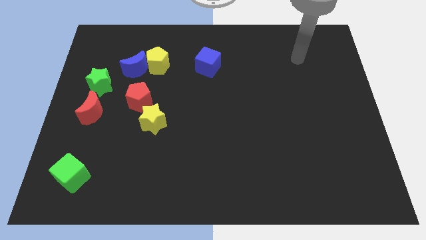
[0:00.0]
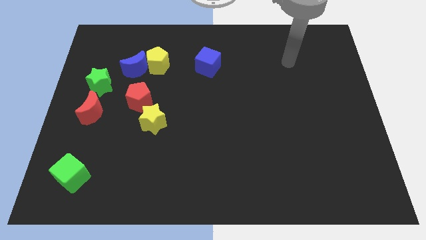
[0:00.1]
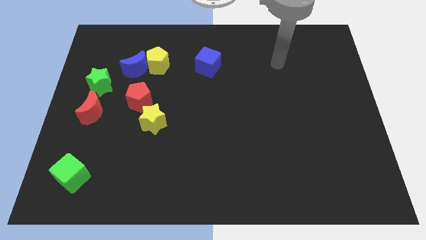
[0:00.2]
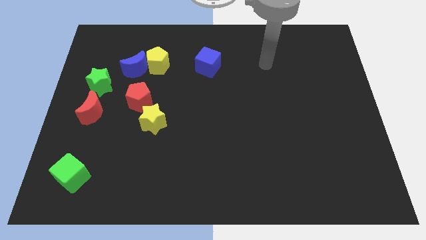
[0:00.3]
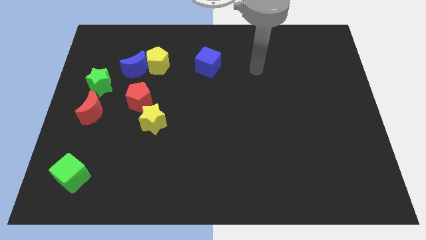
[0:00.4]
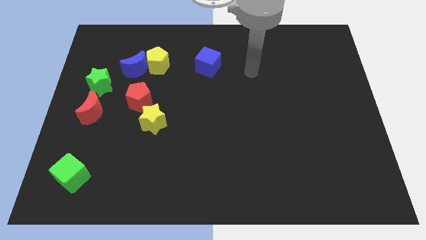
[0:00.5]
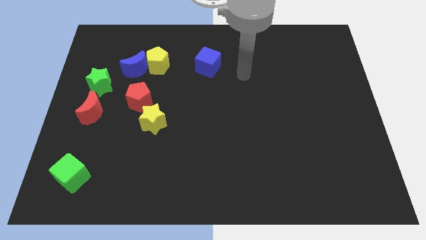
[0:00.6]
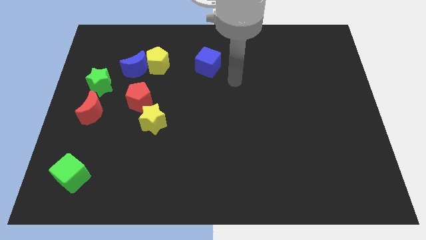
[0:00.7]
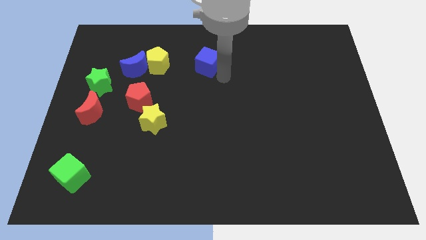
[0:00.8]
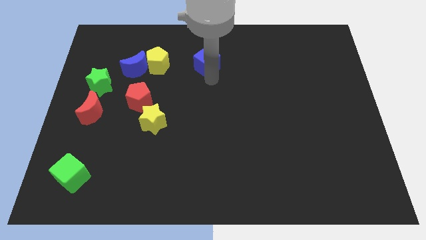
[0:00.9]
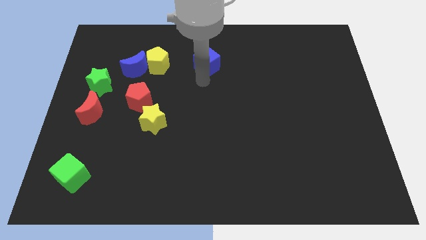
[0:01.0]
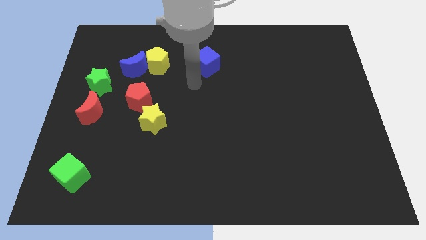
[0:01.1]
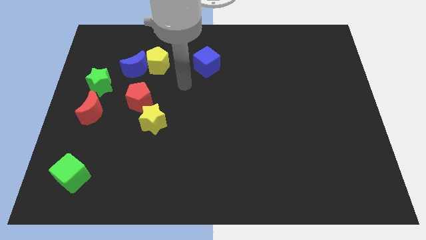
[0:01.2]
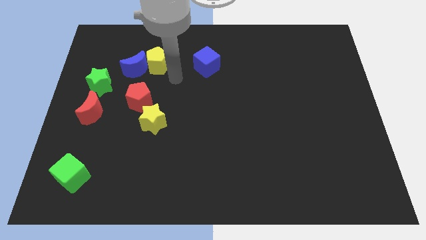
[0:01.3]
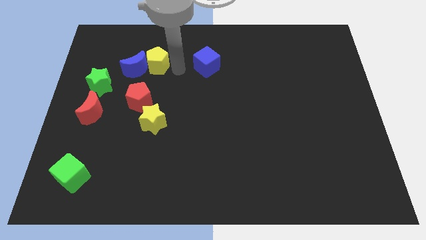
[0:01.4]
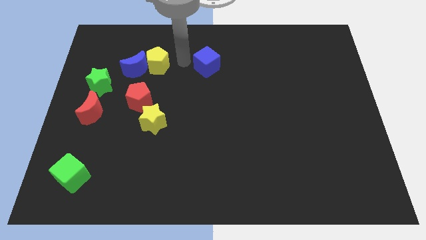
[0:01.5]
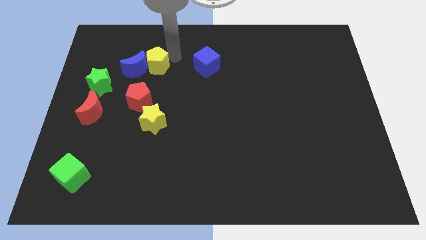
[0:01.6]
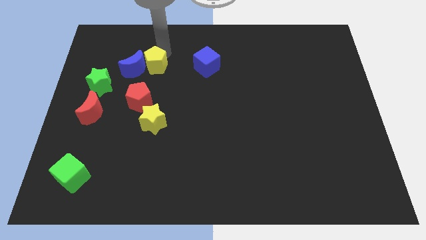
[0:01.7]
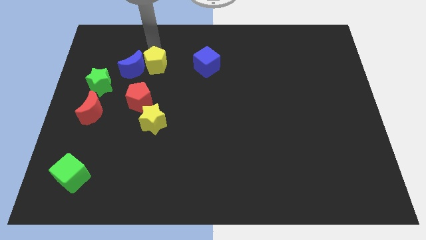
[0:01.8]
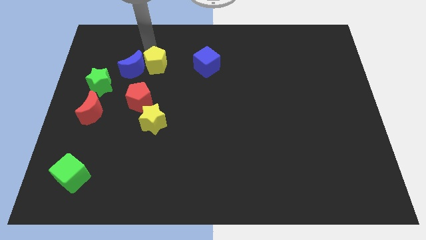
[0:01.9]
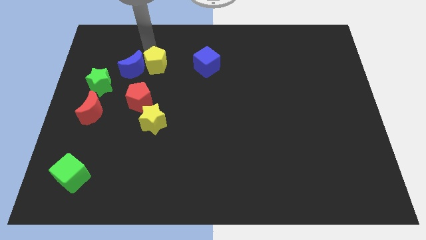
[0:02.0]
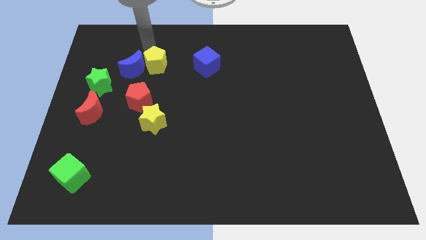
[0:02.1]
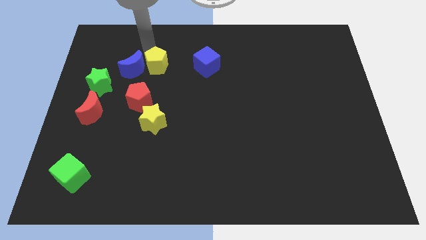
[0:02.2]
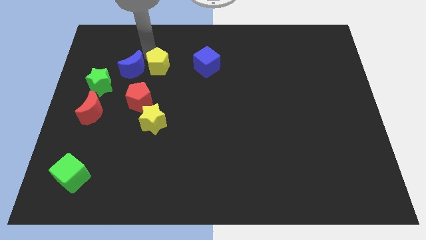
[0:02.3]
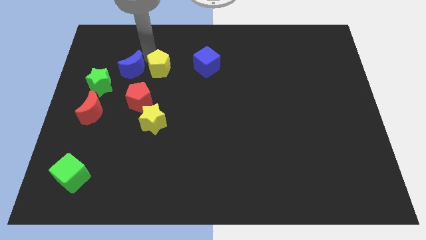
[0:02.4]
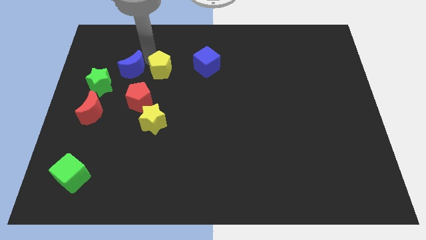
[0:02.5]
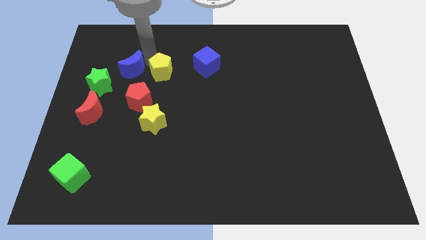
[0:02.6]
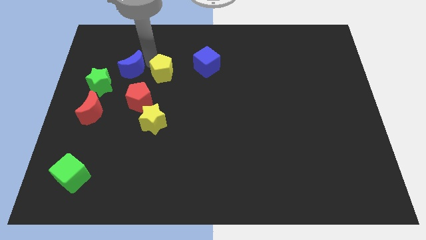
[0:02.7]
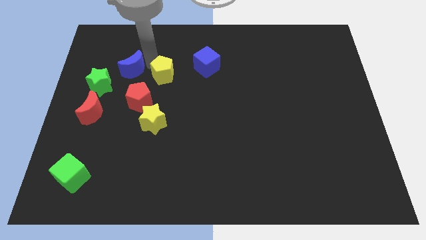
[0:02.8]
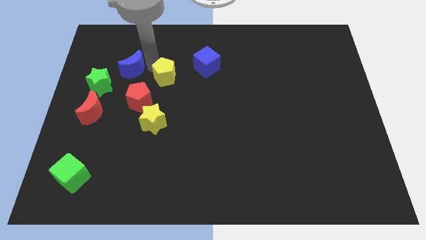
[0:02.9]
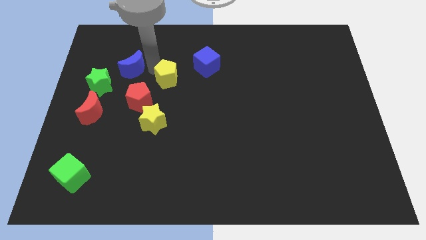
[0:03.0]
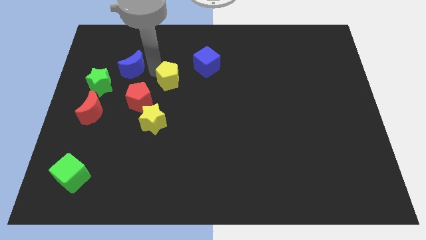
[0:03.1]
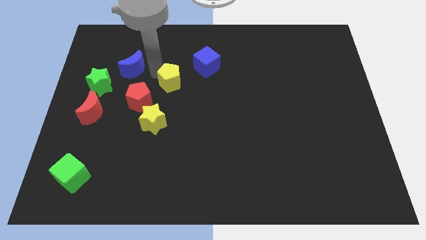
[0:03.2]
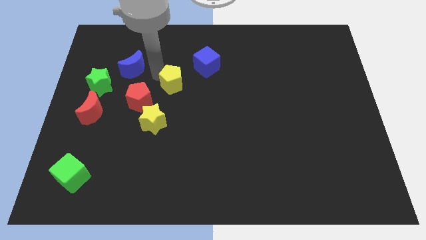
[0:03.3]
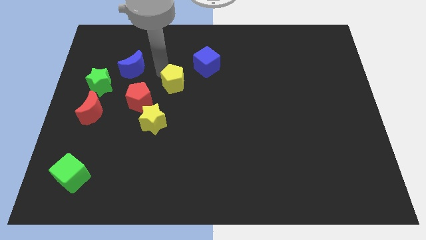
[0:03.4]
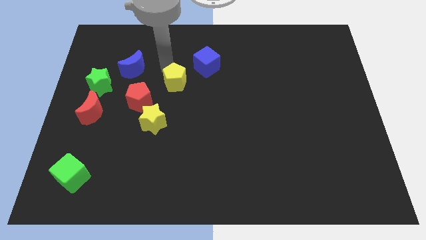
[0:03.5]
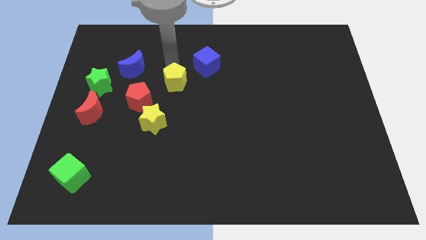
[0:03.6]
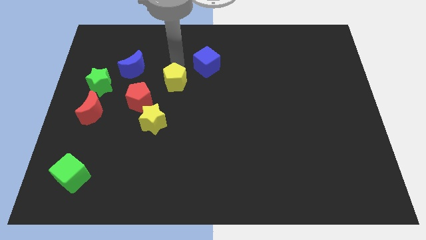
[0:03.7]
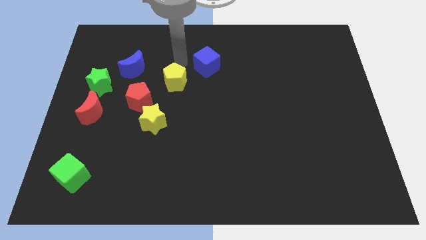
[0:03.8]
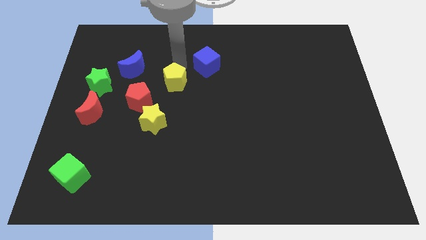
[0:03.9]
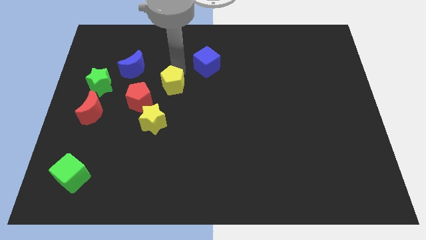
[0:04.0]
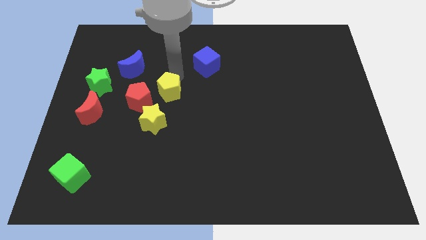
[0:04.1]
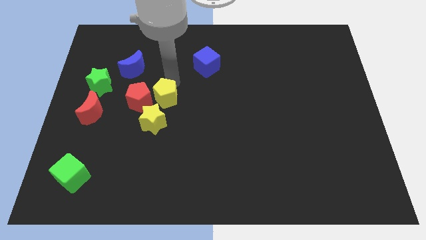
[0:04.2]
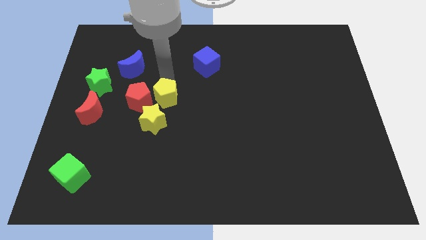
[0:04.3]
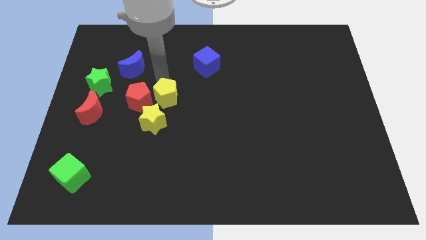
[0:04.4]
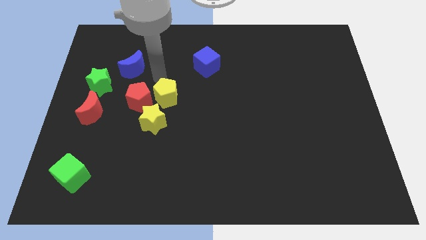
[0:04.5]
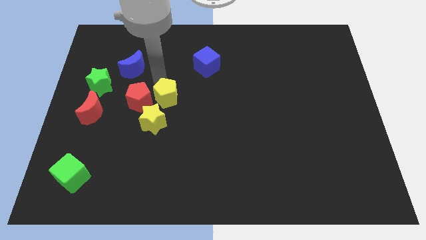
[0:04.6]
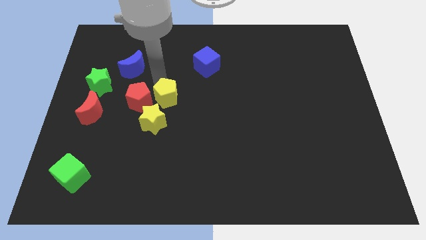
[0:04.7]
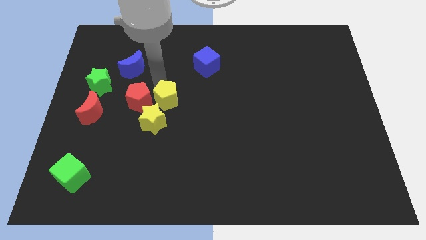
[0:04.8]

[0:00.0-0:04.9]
slide the yellow pentagon to the bottom right of the red pentagon

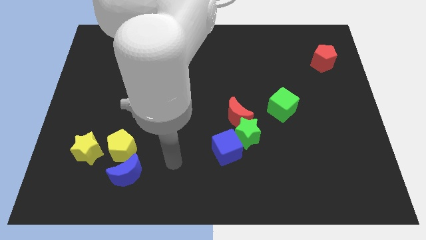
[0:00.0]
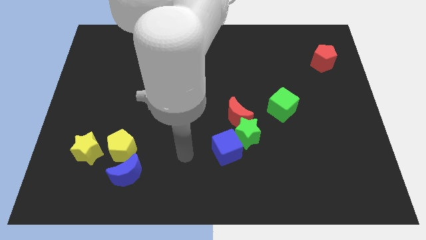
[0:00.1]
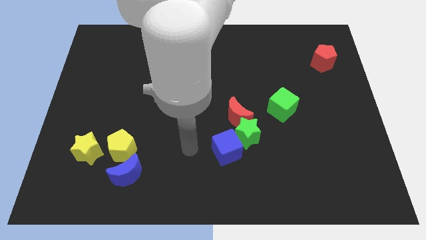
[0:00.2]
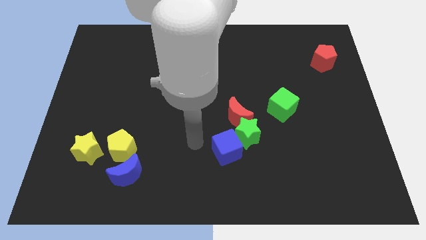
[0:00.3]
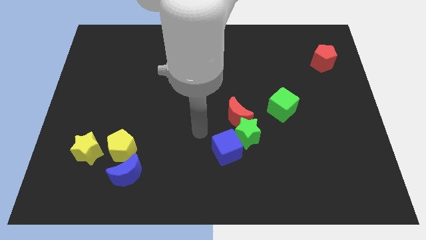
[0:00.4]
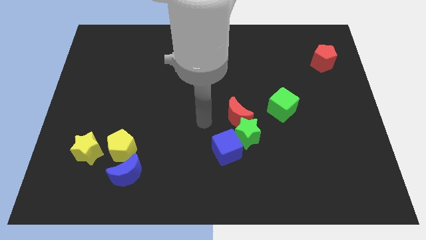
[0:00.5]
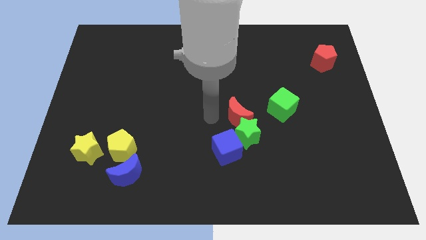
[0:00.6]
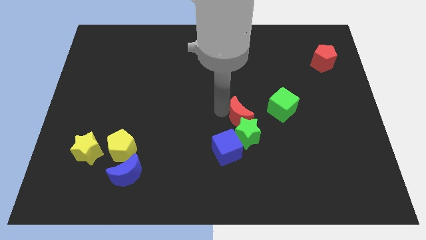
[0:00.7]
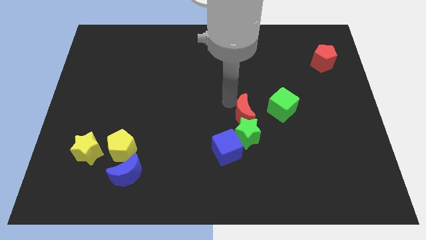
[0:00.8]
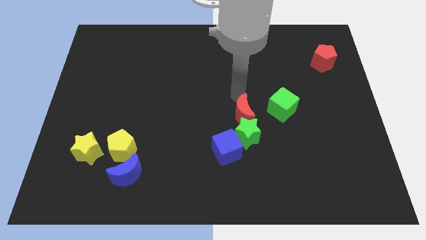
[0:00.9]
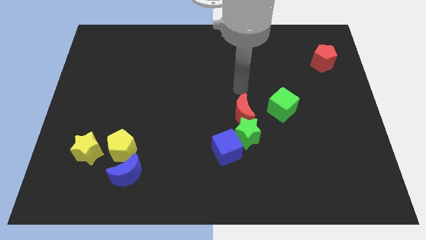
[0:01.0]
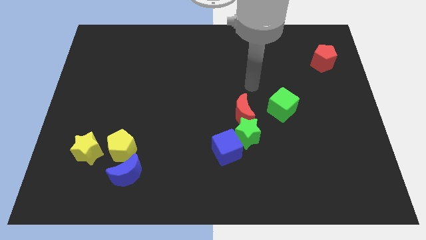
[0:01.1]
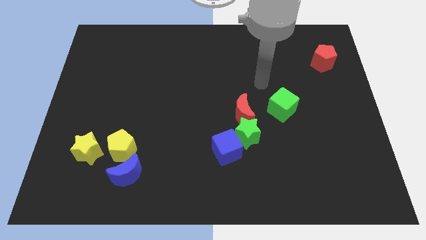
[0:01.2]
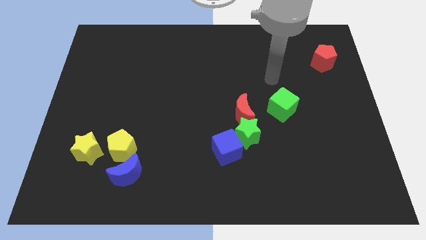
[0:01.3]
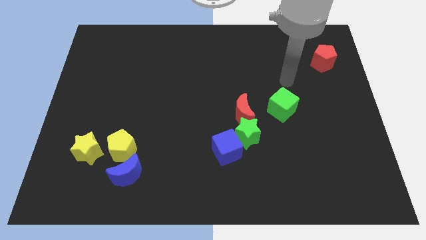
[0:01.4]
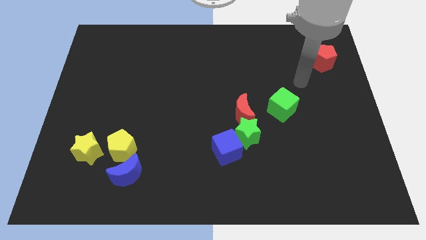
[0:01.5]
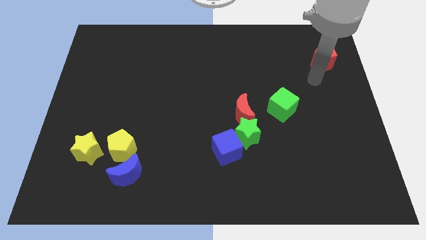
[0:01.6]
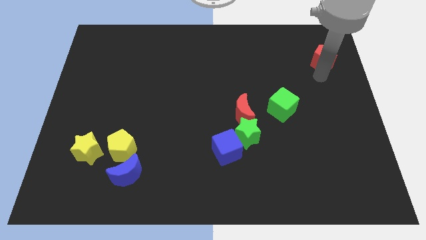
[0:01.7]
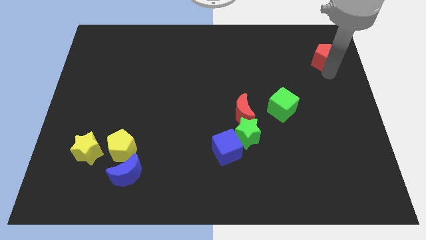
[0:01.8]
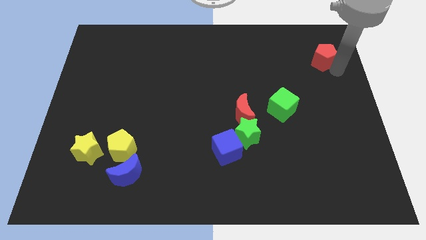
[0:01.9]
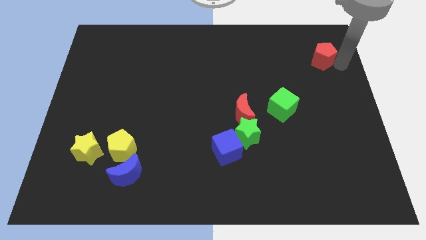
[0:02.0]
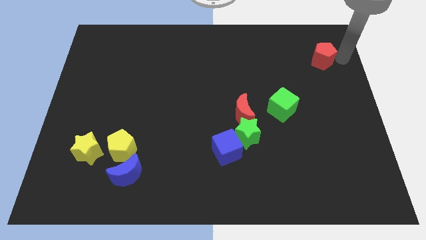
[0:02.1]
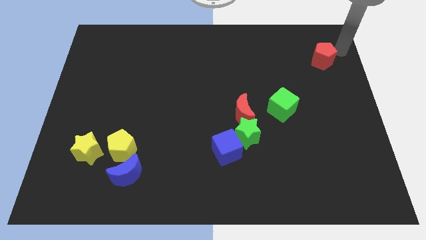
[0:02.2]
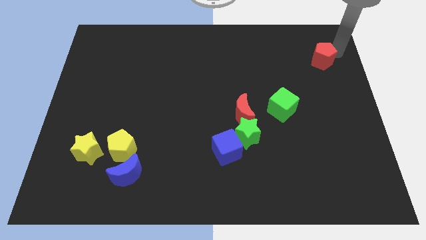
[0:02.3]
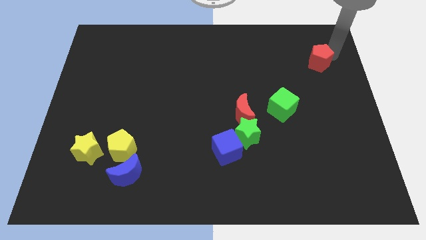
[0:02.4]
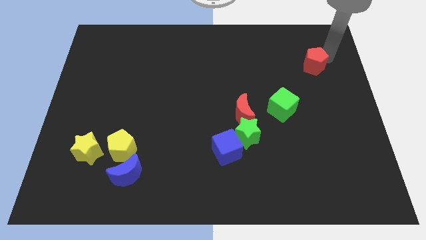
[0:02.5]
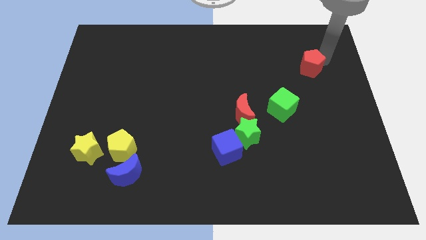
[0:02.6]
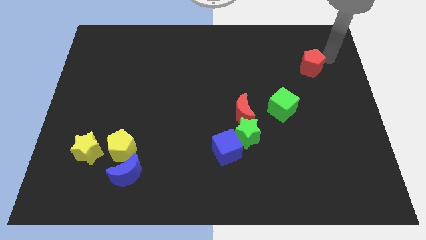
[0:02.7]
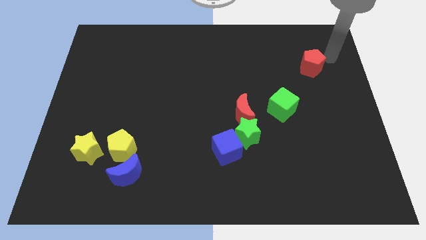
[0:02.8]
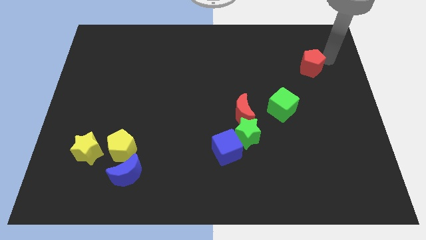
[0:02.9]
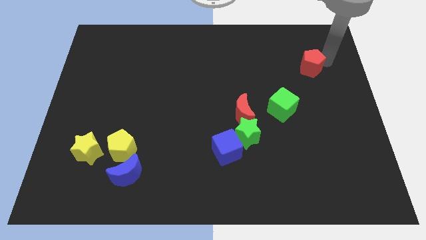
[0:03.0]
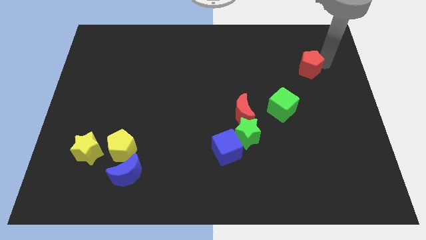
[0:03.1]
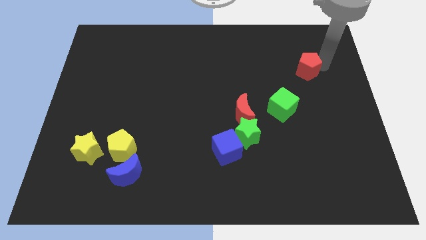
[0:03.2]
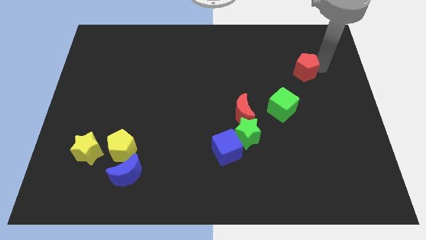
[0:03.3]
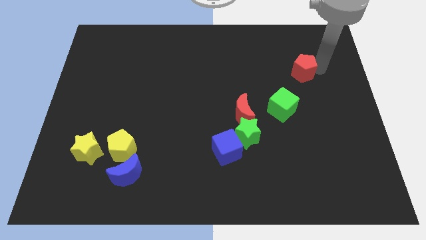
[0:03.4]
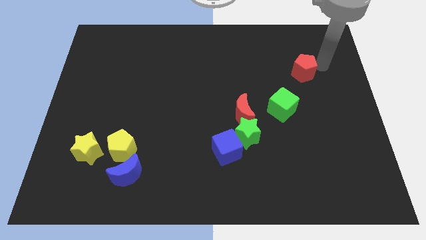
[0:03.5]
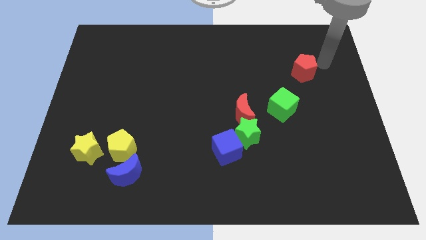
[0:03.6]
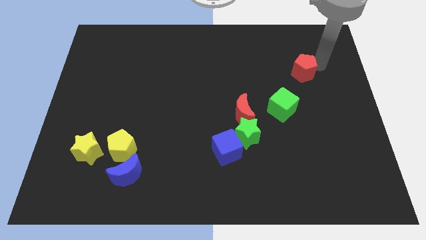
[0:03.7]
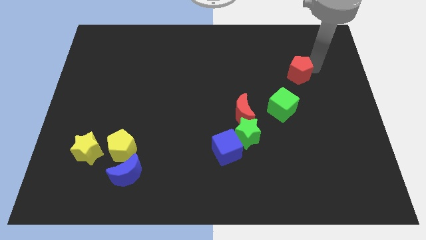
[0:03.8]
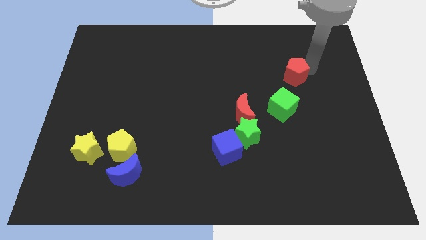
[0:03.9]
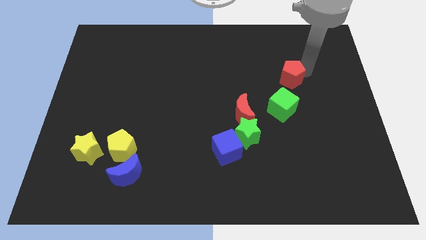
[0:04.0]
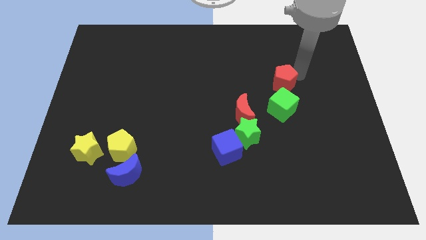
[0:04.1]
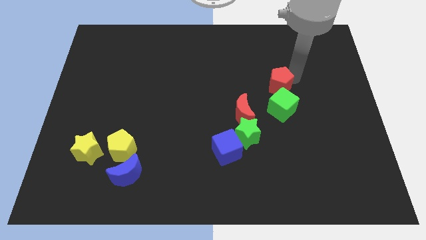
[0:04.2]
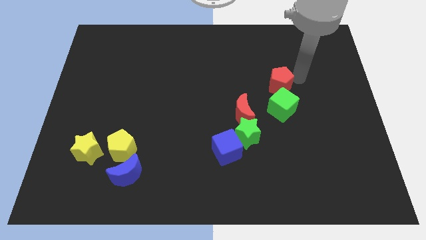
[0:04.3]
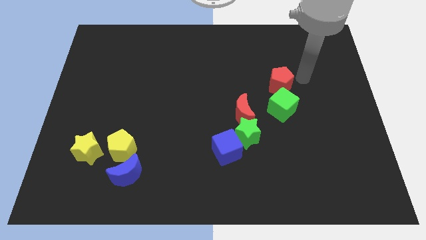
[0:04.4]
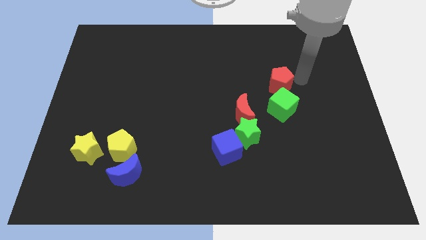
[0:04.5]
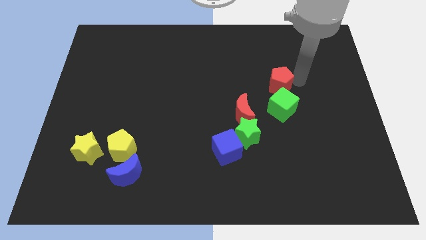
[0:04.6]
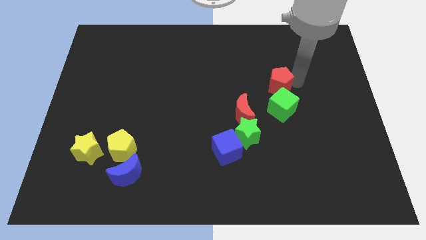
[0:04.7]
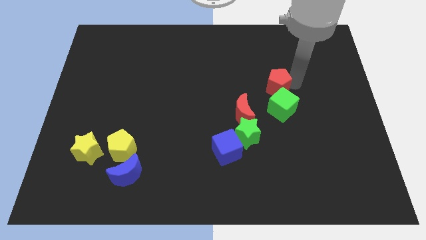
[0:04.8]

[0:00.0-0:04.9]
put the red pentagon to the top left of the green cube
